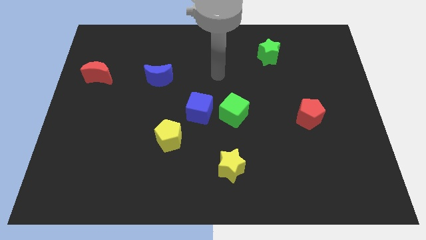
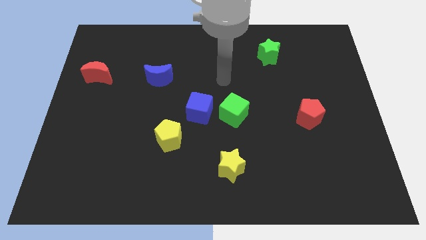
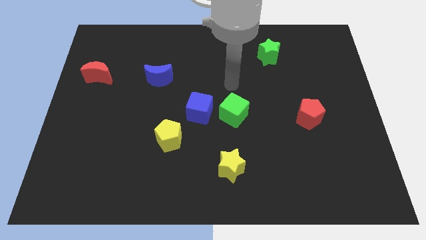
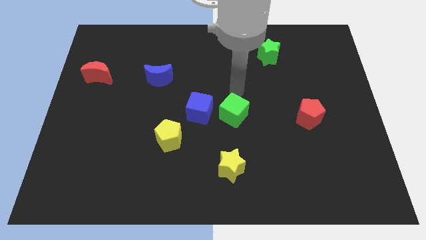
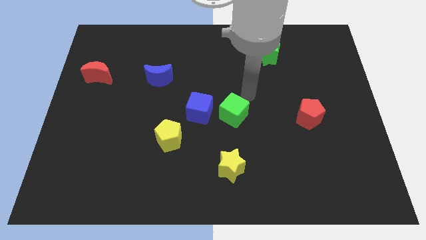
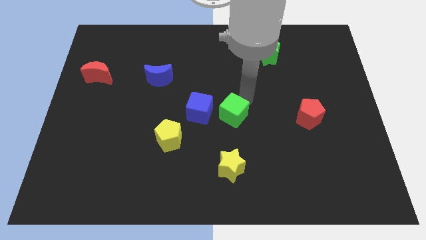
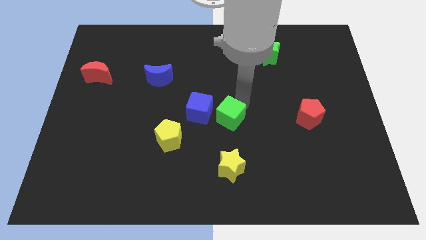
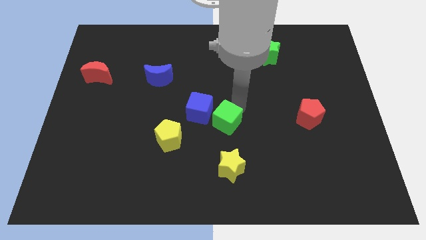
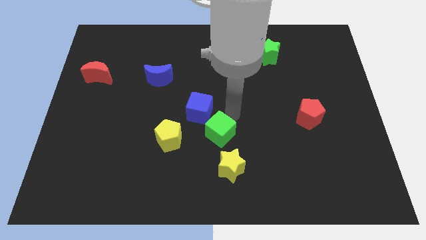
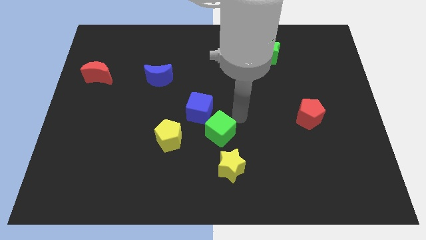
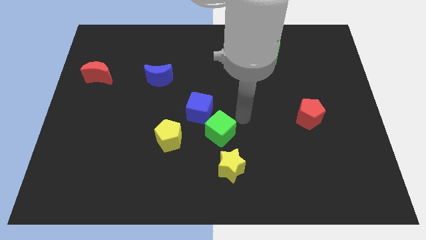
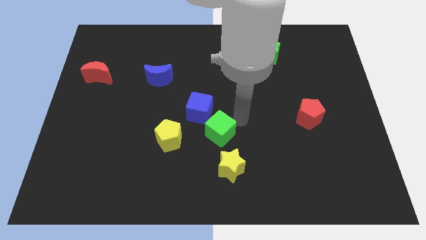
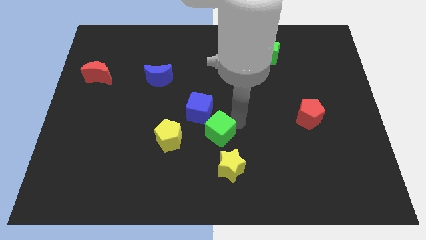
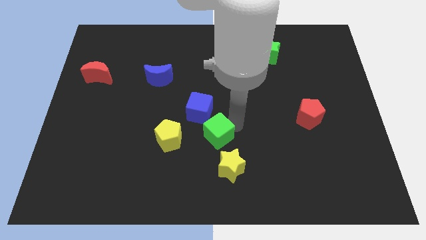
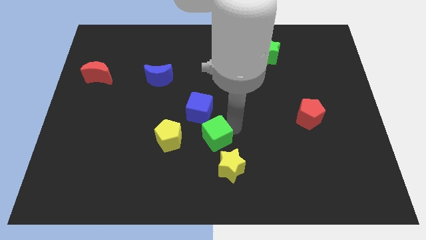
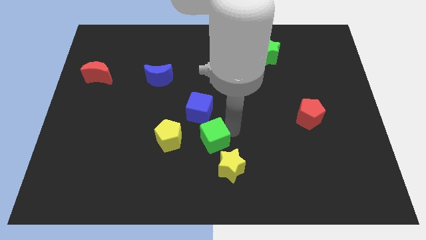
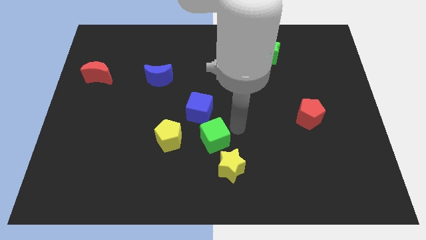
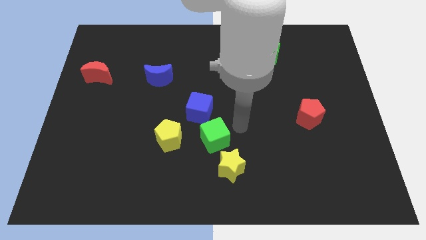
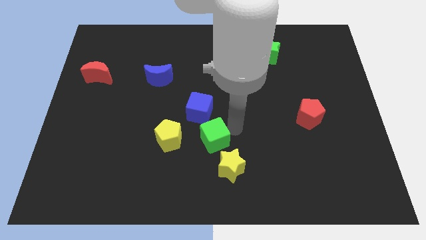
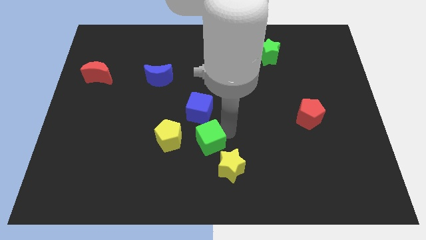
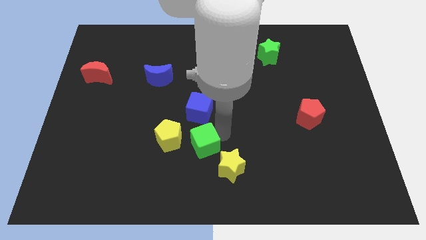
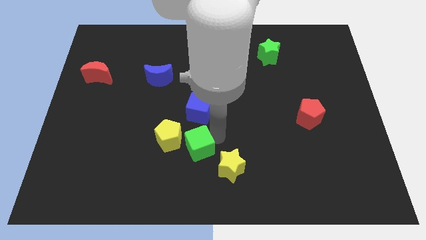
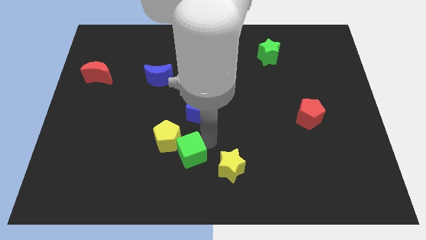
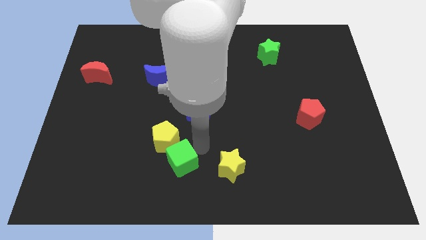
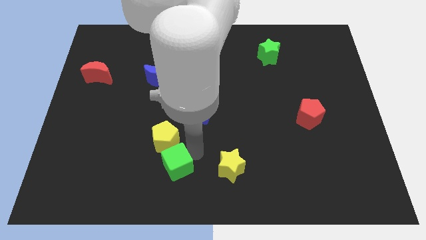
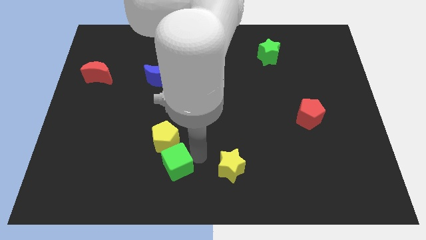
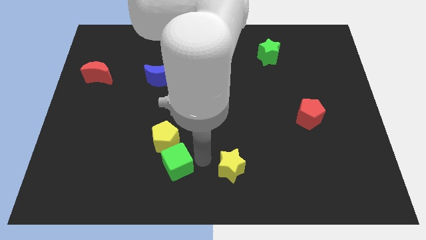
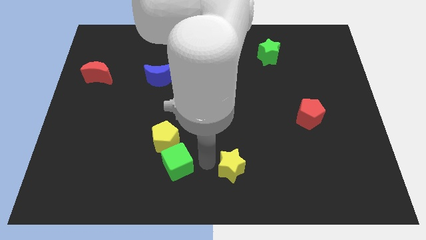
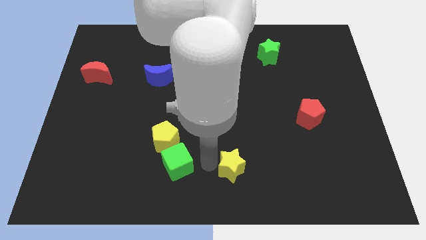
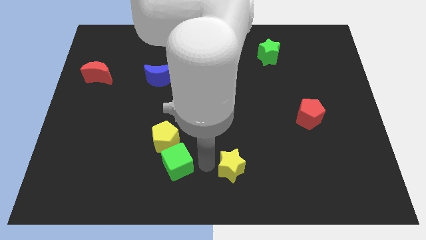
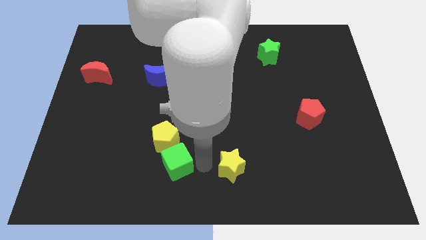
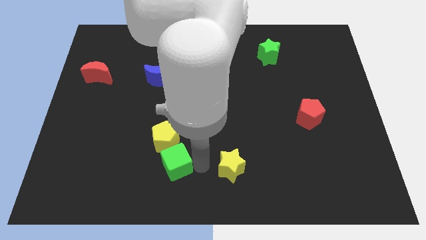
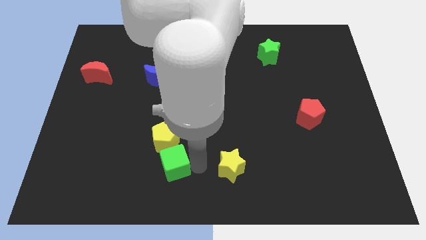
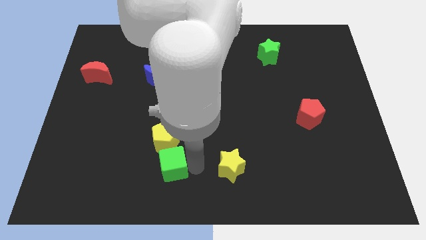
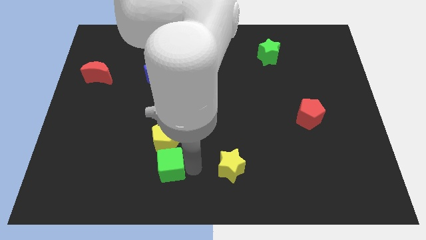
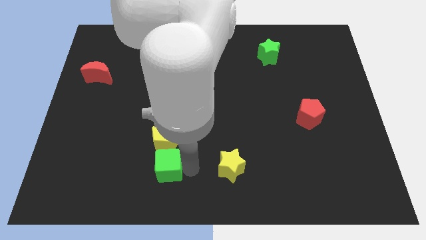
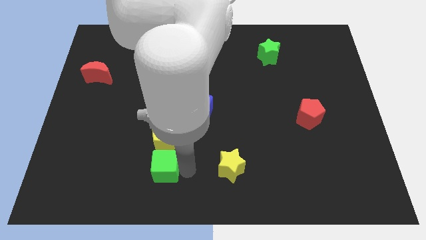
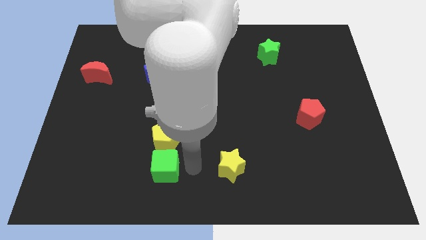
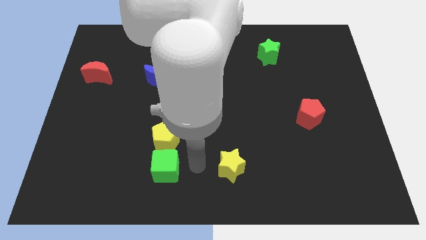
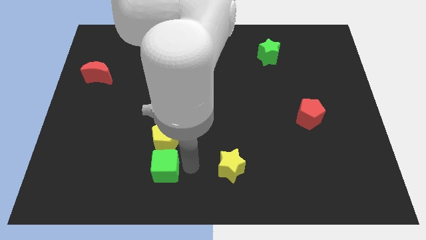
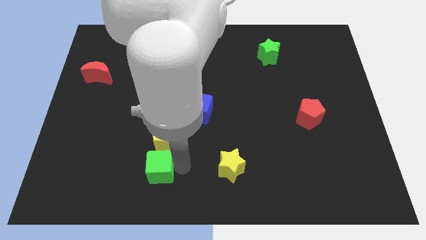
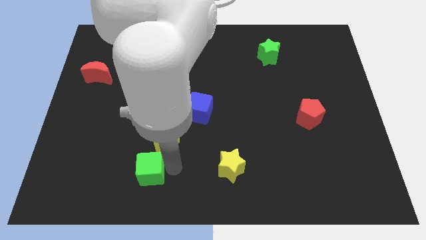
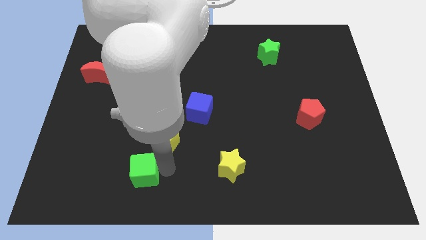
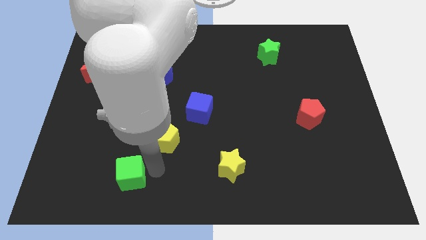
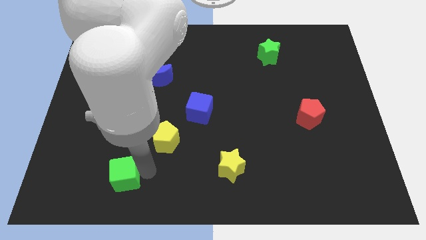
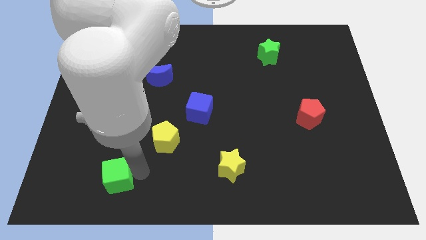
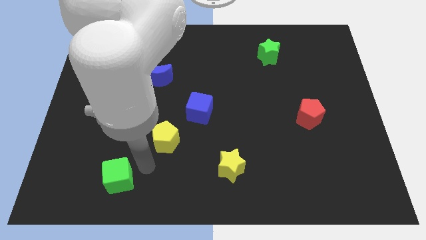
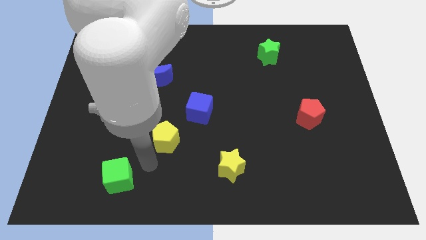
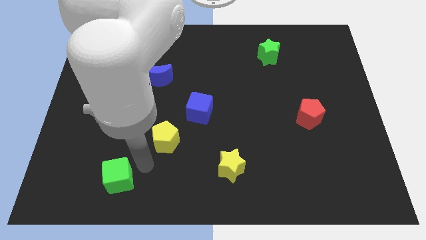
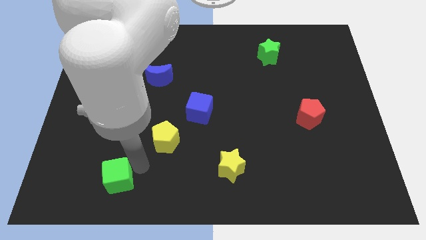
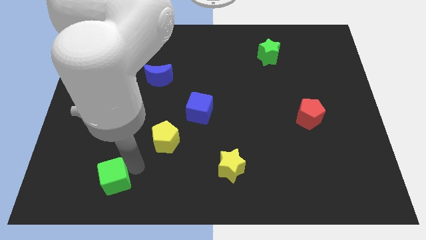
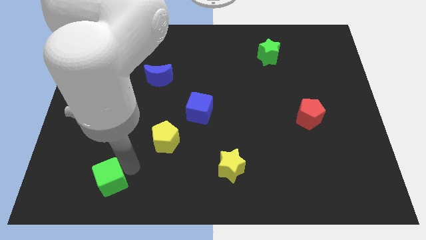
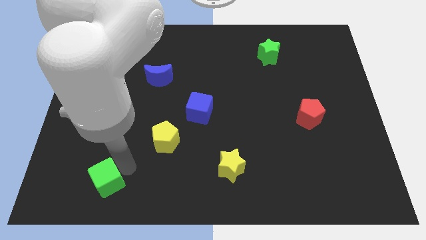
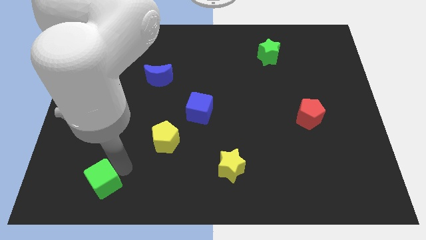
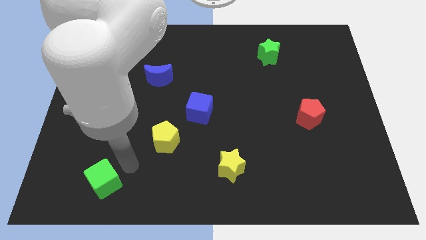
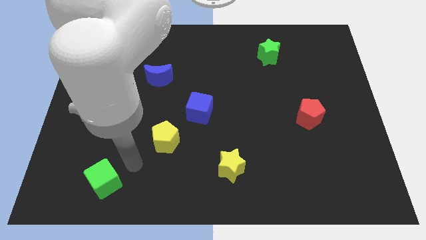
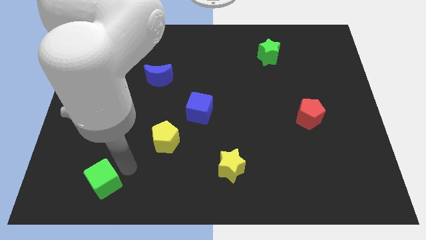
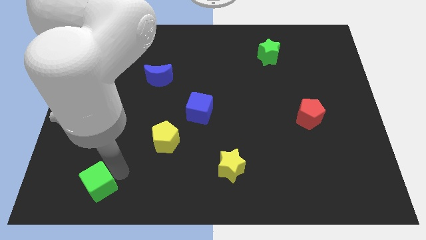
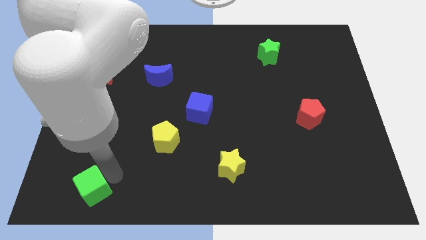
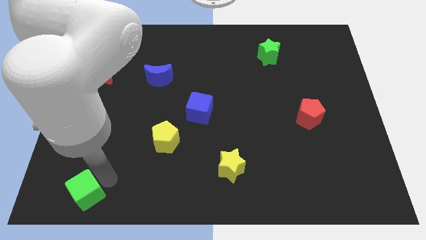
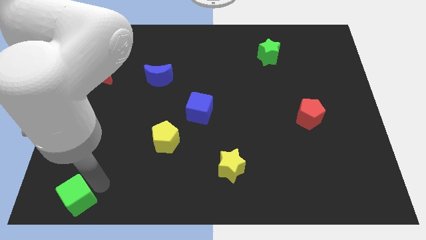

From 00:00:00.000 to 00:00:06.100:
push the green cube to the bottom left
